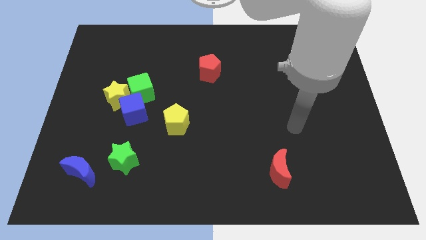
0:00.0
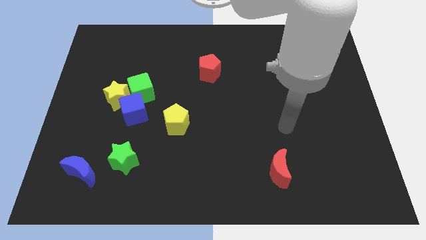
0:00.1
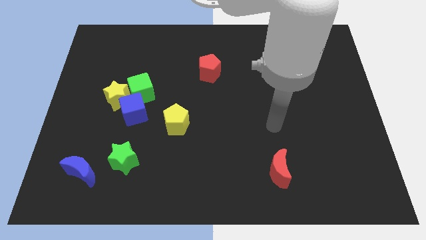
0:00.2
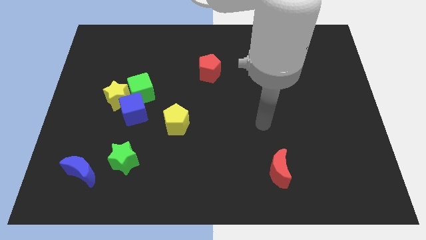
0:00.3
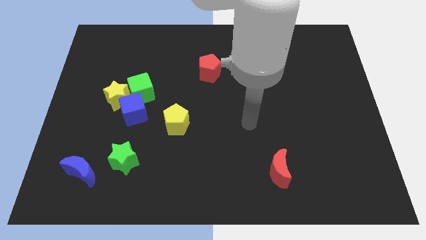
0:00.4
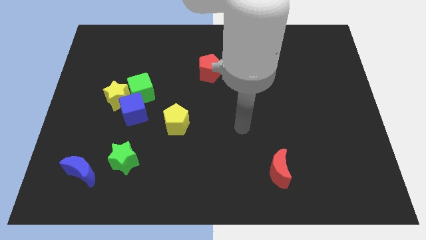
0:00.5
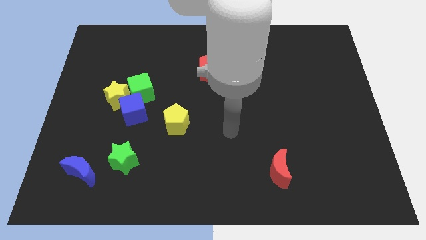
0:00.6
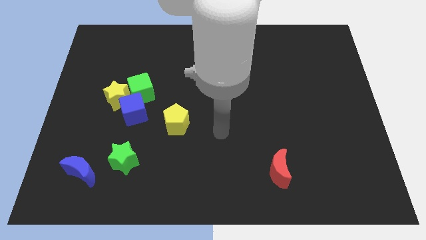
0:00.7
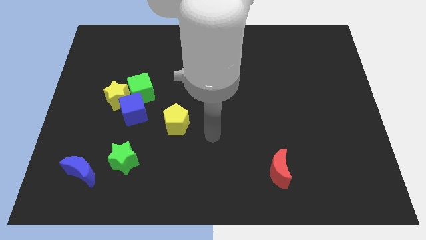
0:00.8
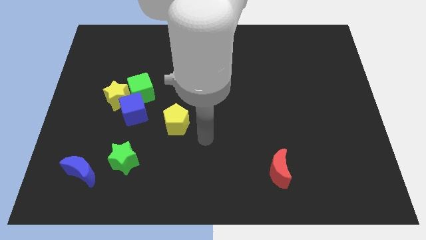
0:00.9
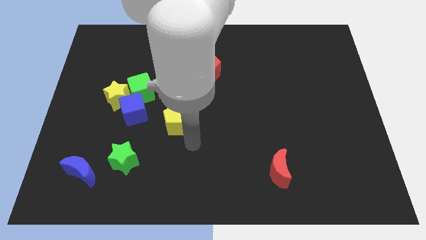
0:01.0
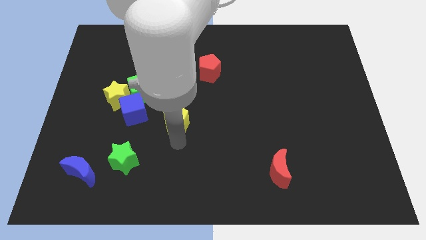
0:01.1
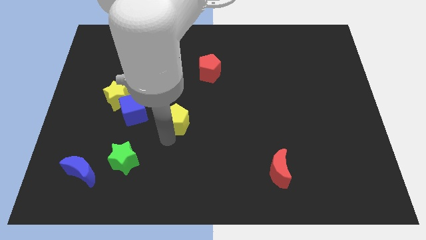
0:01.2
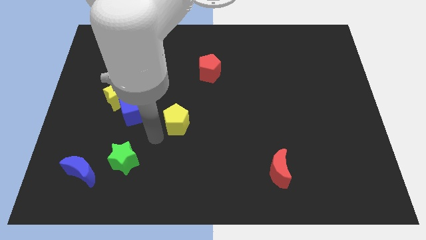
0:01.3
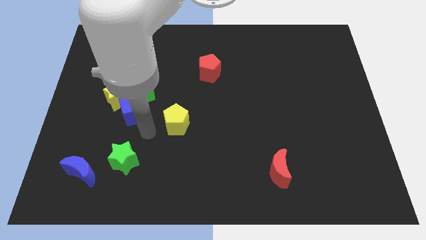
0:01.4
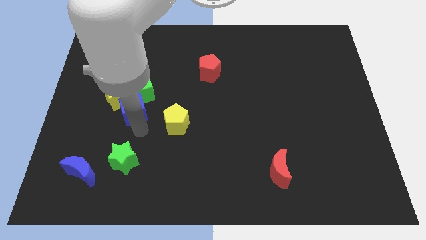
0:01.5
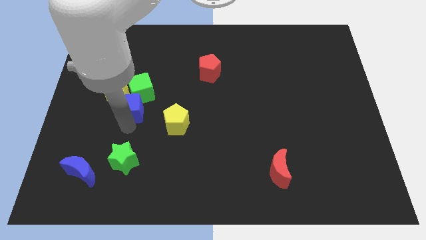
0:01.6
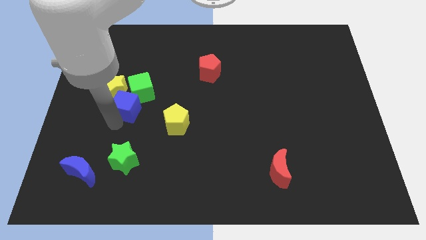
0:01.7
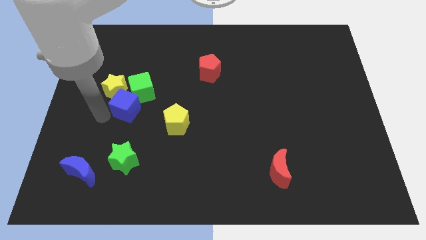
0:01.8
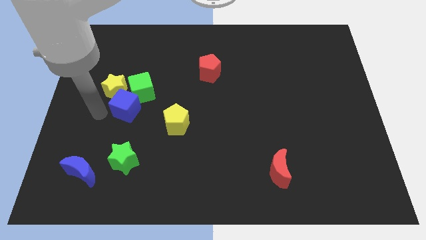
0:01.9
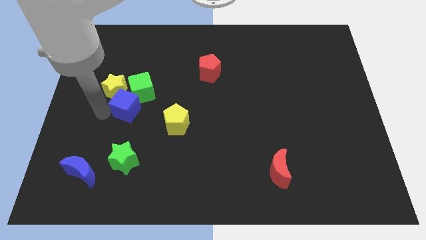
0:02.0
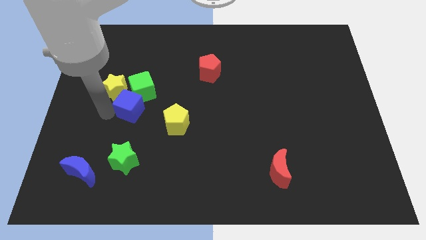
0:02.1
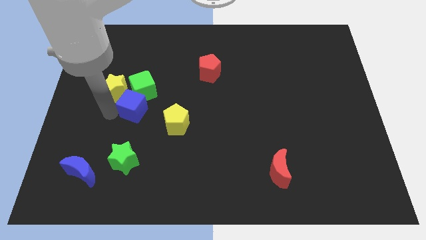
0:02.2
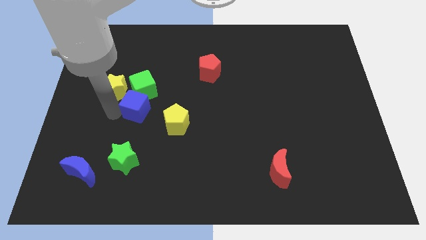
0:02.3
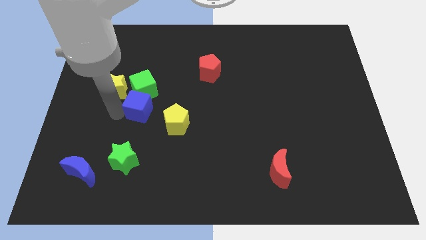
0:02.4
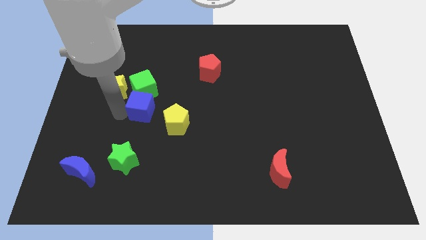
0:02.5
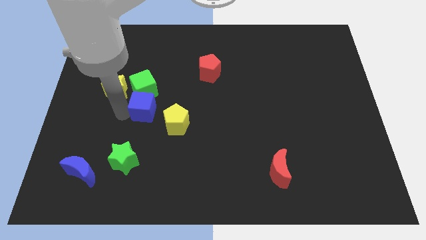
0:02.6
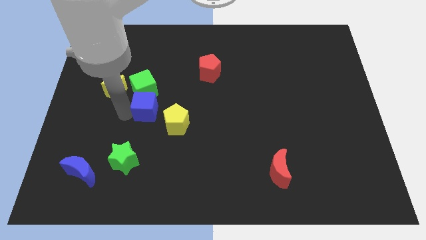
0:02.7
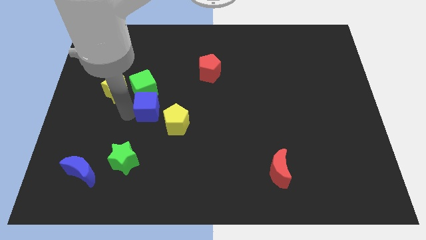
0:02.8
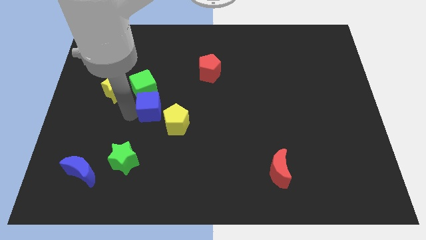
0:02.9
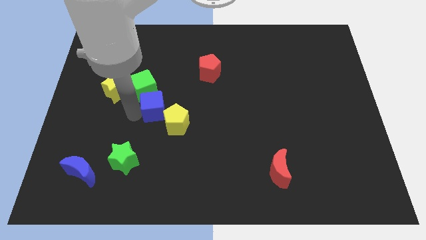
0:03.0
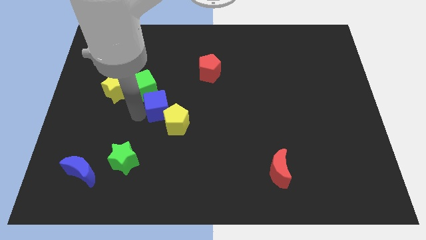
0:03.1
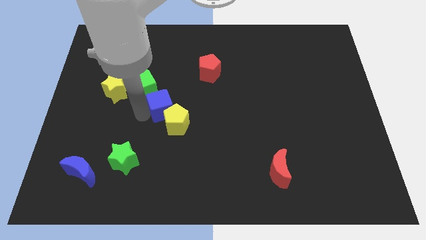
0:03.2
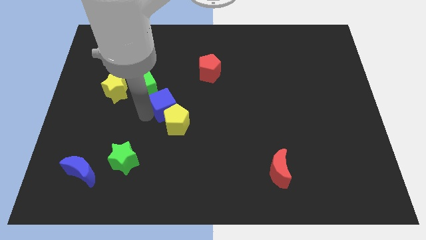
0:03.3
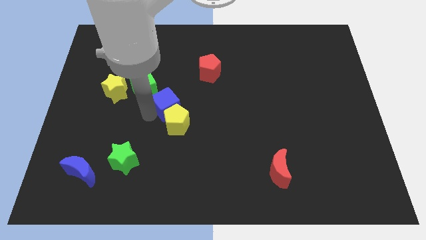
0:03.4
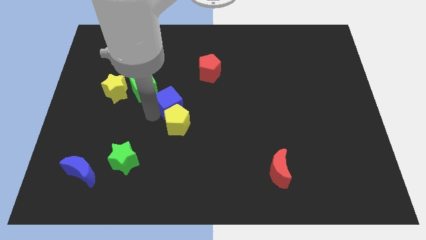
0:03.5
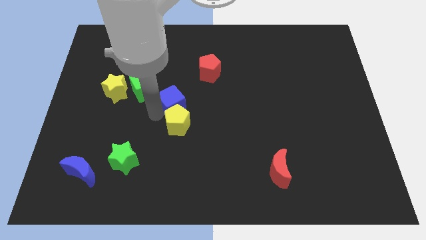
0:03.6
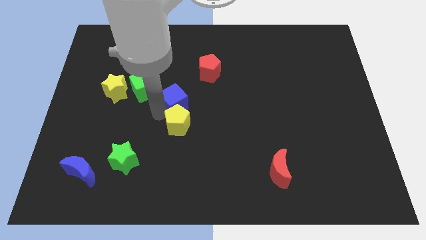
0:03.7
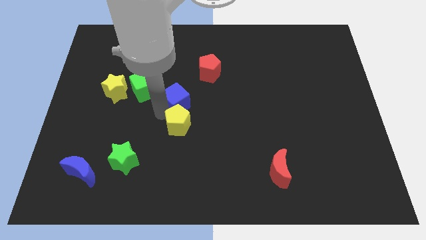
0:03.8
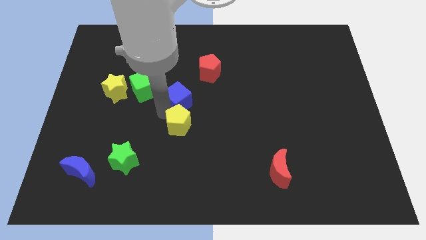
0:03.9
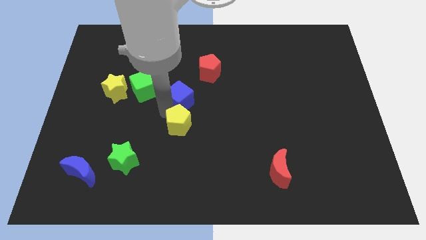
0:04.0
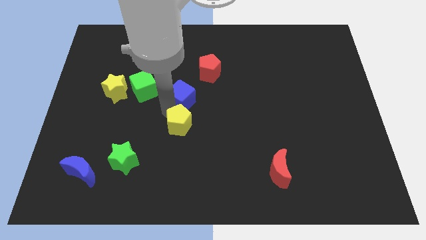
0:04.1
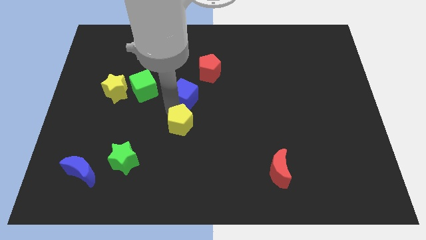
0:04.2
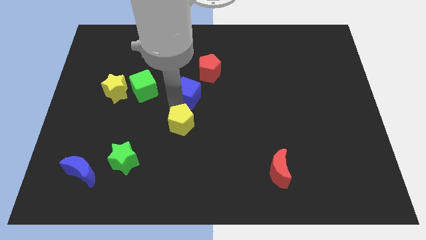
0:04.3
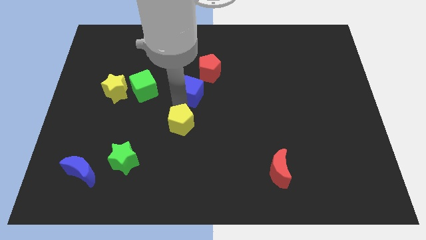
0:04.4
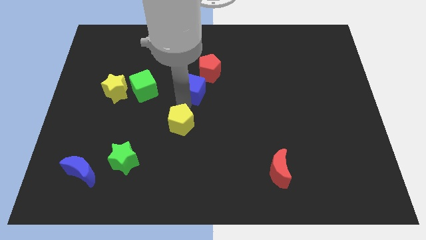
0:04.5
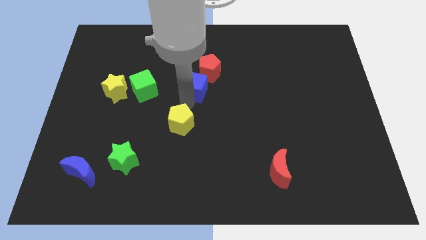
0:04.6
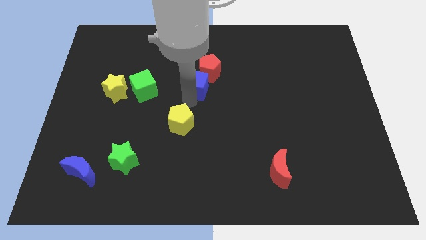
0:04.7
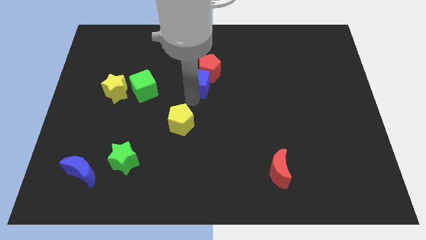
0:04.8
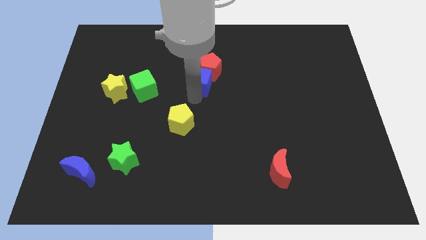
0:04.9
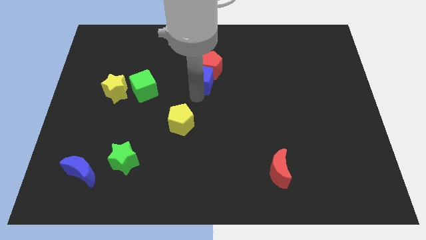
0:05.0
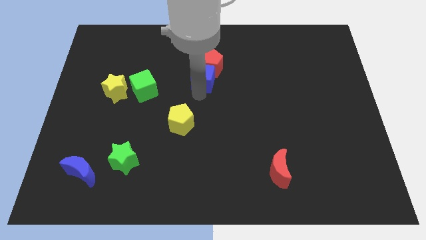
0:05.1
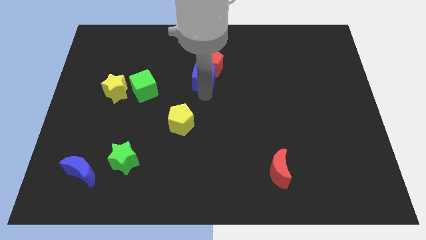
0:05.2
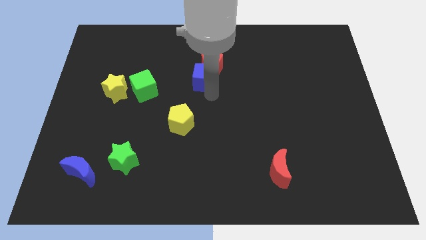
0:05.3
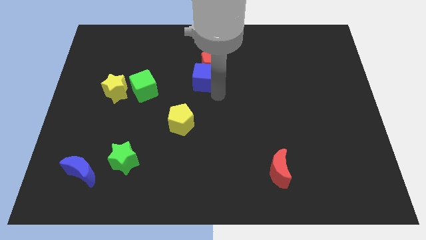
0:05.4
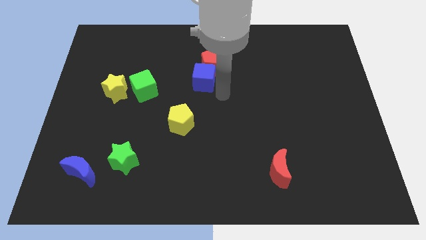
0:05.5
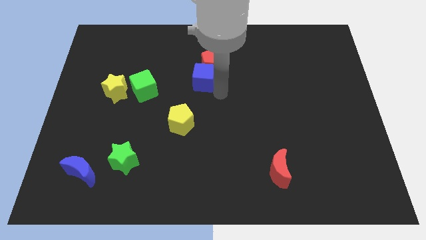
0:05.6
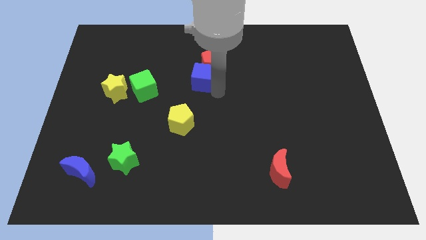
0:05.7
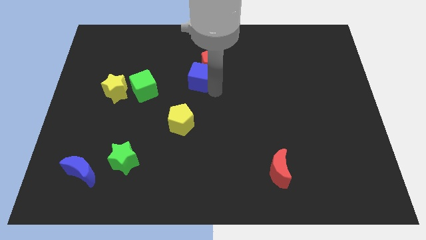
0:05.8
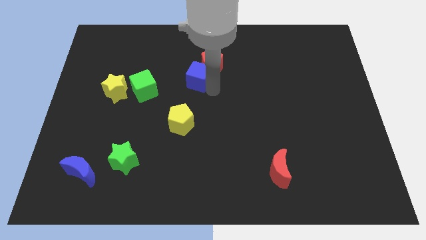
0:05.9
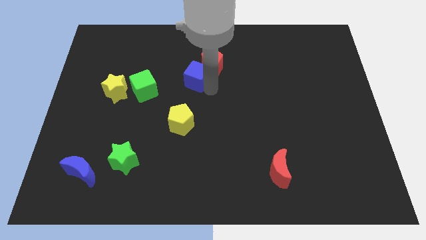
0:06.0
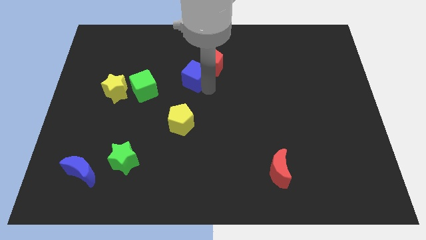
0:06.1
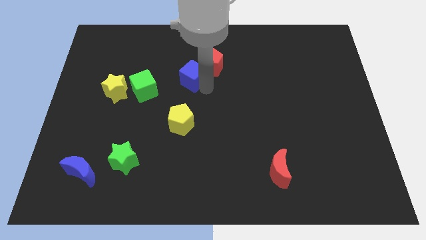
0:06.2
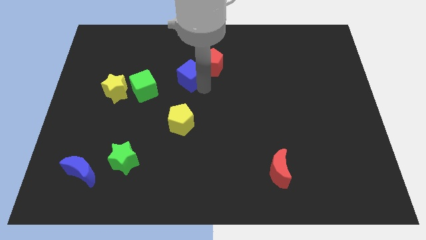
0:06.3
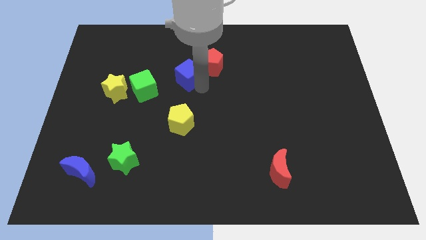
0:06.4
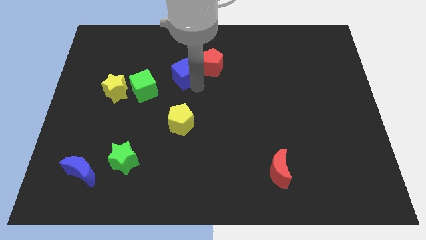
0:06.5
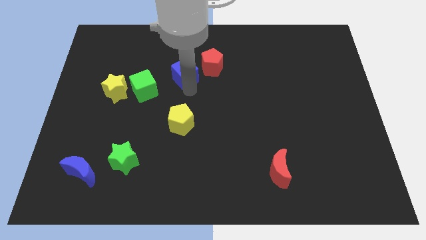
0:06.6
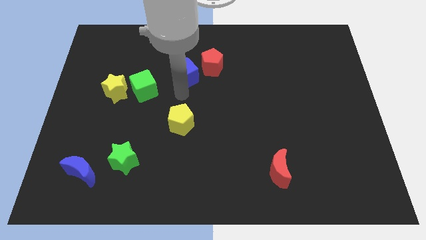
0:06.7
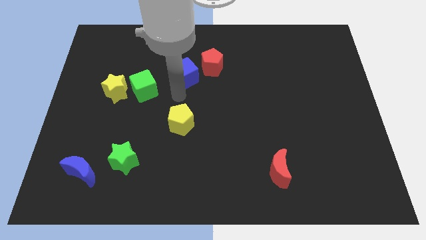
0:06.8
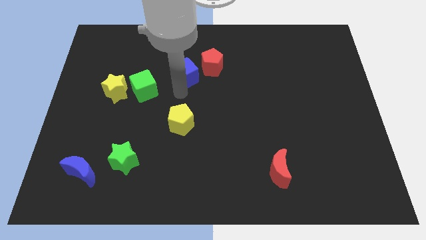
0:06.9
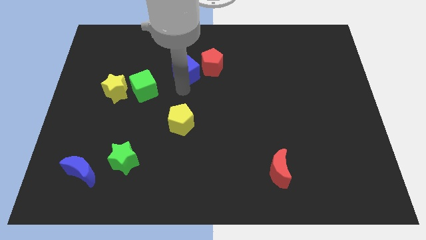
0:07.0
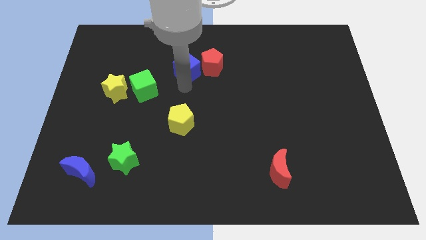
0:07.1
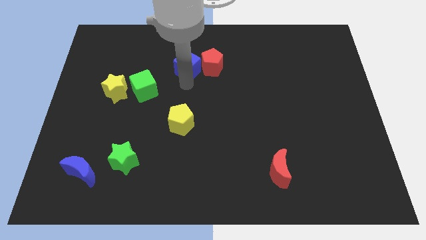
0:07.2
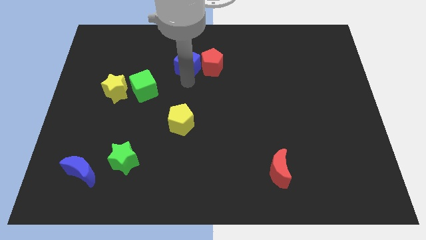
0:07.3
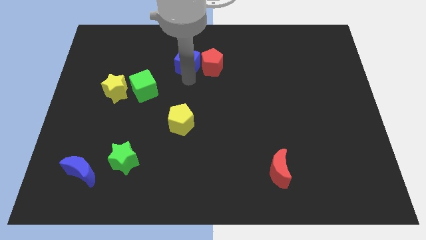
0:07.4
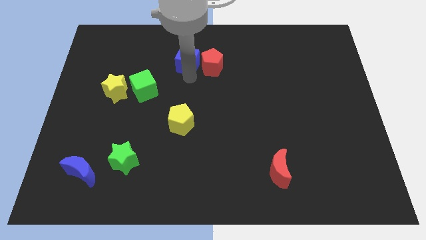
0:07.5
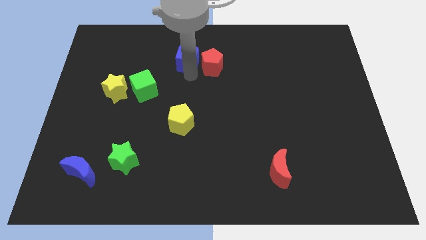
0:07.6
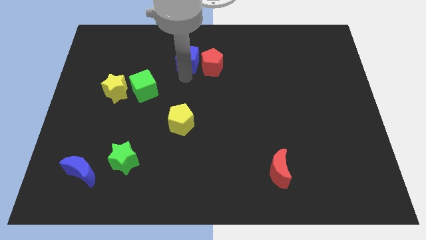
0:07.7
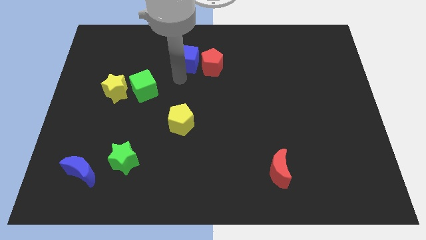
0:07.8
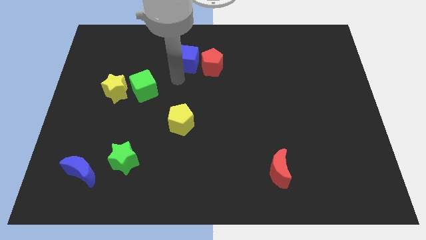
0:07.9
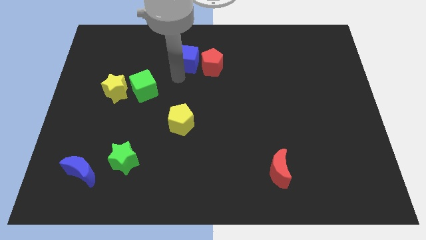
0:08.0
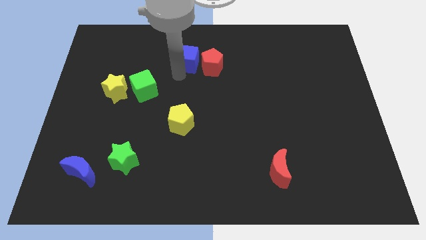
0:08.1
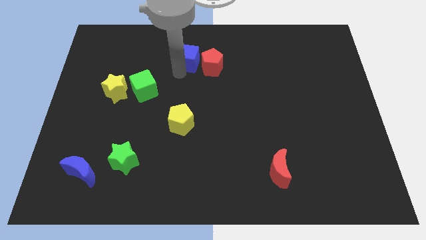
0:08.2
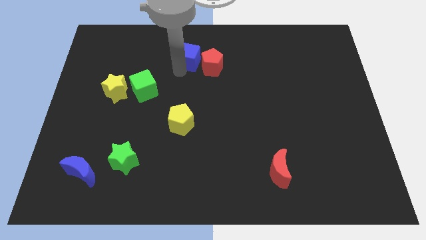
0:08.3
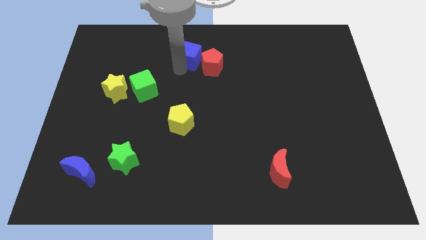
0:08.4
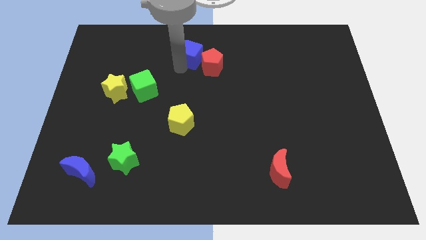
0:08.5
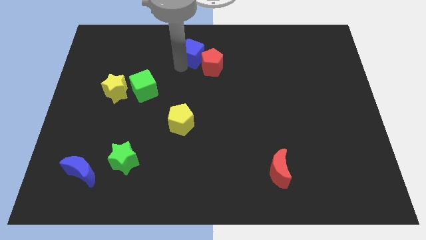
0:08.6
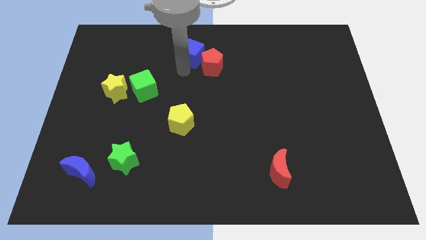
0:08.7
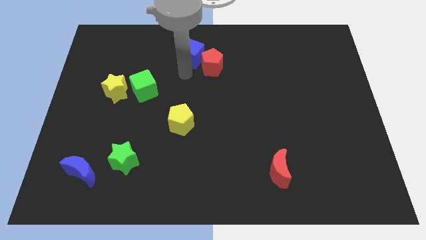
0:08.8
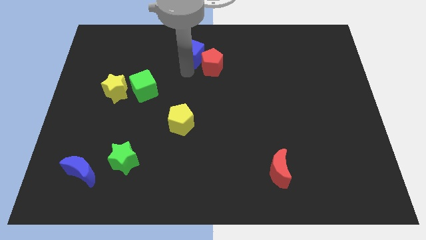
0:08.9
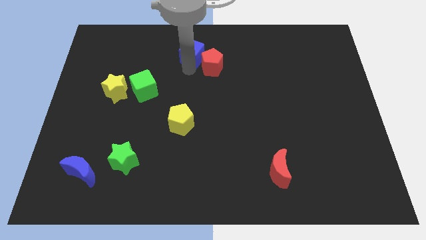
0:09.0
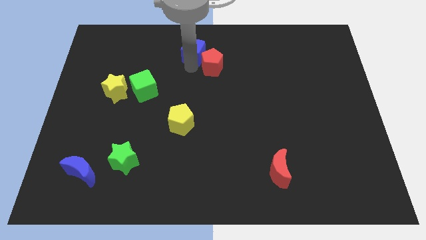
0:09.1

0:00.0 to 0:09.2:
move the blue cube to the towards your base
